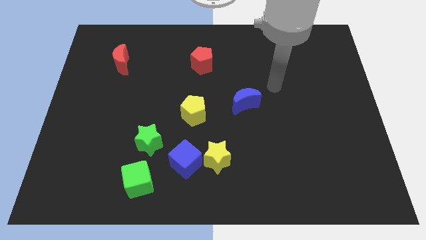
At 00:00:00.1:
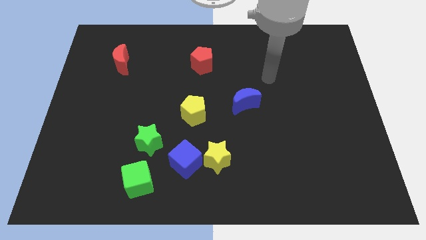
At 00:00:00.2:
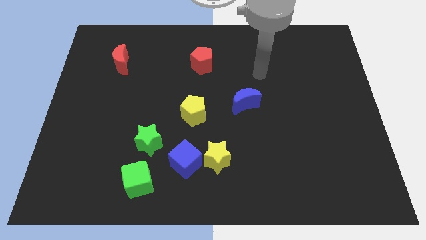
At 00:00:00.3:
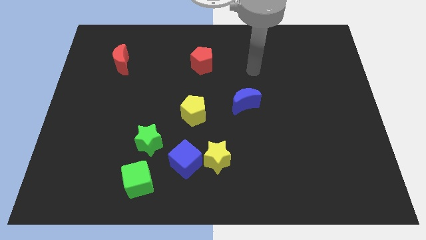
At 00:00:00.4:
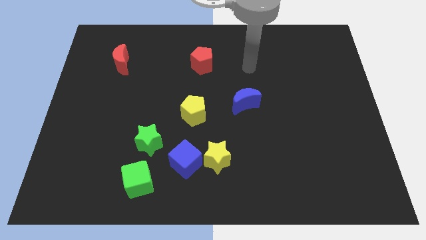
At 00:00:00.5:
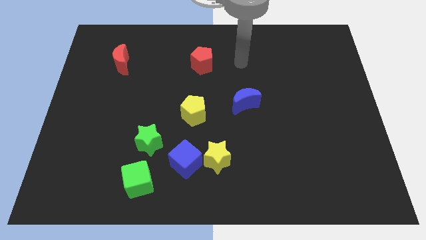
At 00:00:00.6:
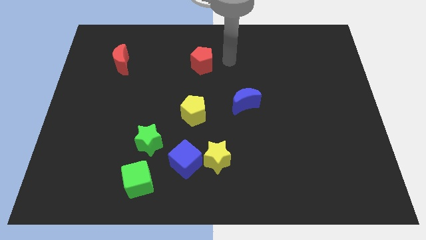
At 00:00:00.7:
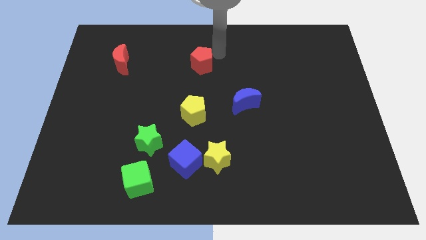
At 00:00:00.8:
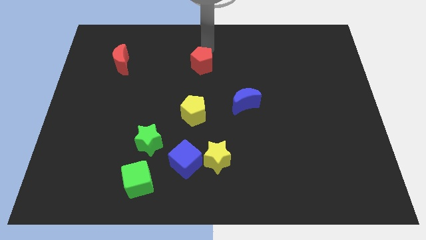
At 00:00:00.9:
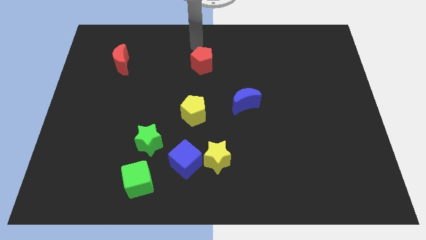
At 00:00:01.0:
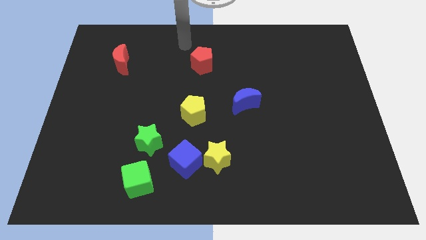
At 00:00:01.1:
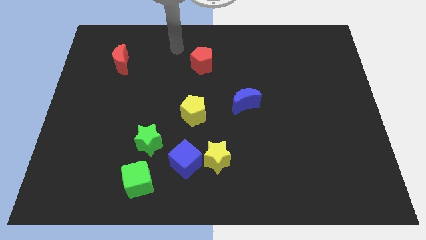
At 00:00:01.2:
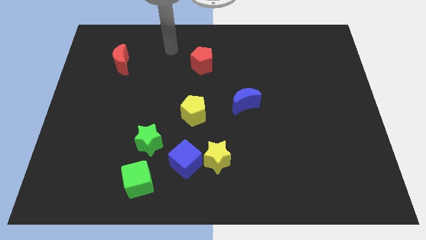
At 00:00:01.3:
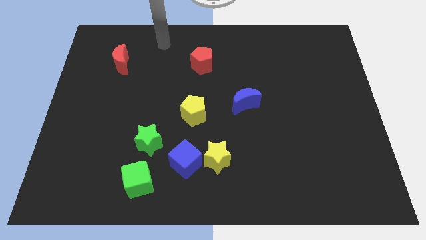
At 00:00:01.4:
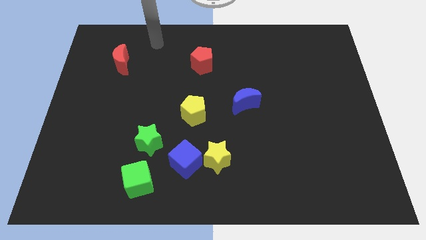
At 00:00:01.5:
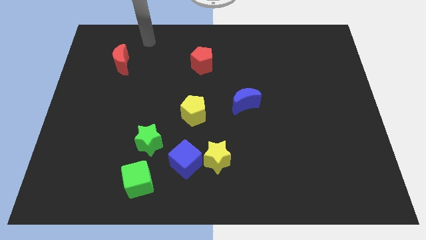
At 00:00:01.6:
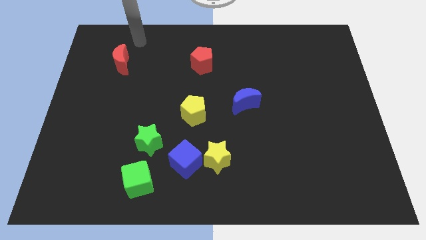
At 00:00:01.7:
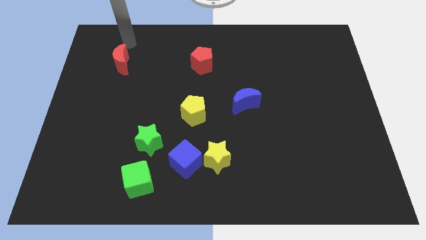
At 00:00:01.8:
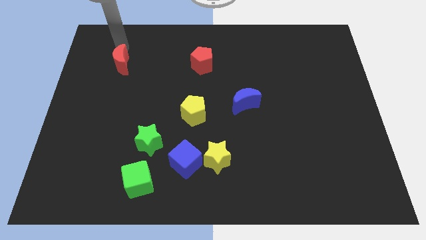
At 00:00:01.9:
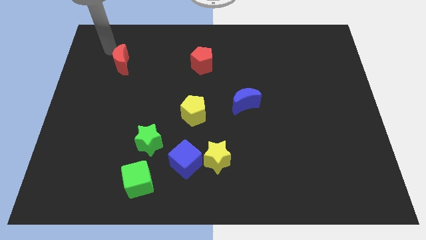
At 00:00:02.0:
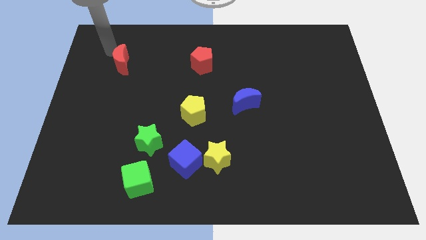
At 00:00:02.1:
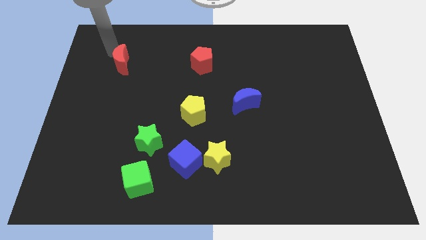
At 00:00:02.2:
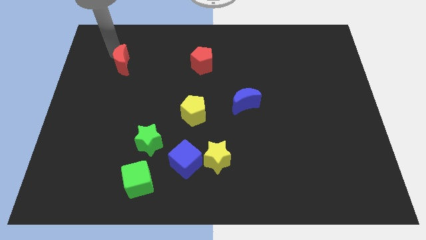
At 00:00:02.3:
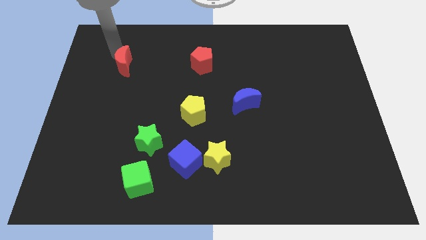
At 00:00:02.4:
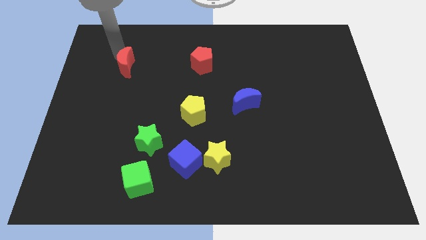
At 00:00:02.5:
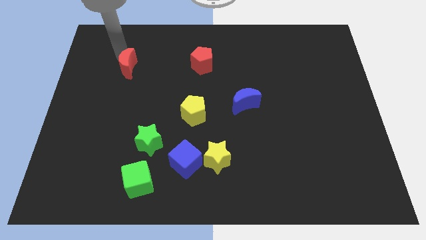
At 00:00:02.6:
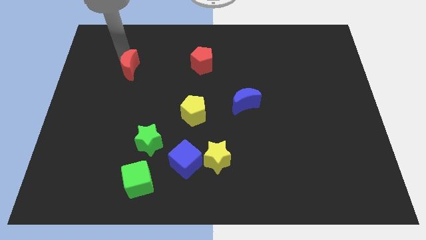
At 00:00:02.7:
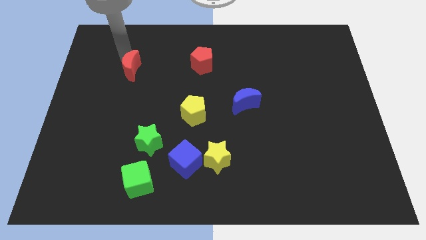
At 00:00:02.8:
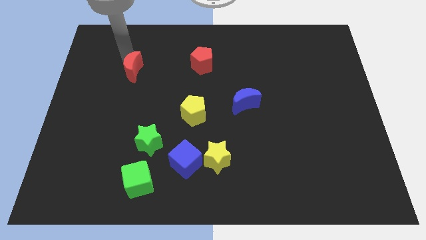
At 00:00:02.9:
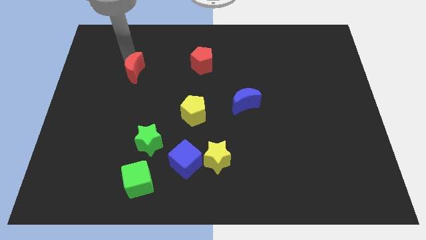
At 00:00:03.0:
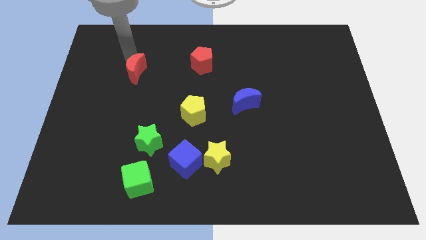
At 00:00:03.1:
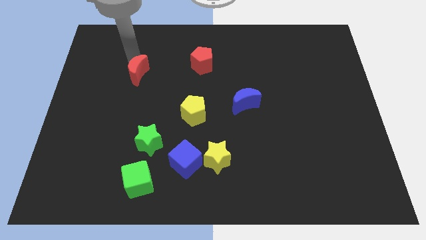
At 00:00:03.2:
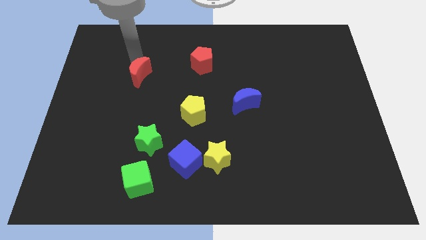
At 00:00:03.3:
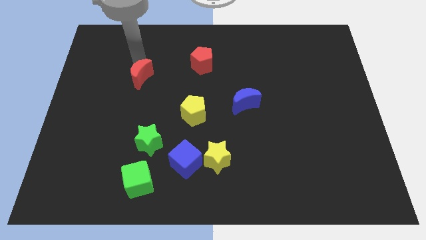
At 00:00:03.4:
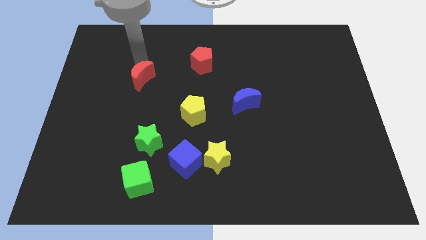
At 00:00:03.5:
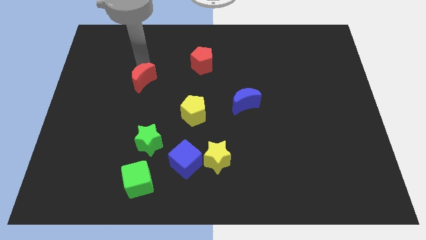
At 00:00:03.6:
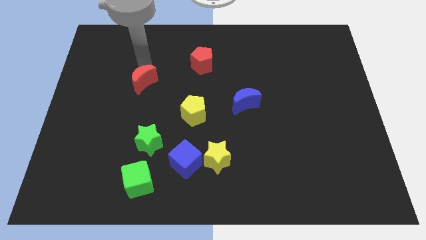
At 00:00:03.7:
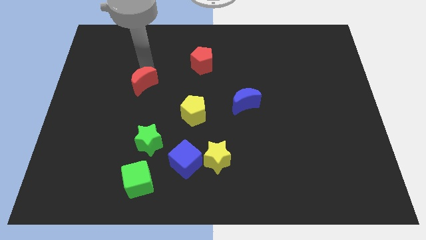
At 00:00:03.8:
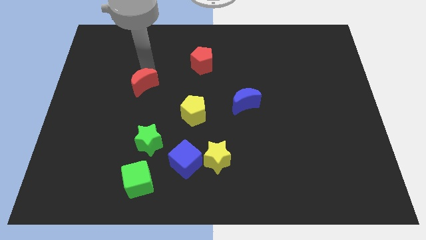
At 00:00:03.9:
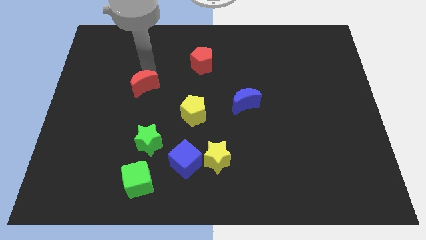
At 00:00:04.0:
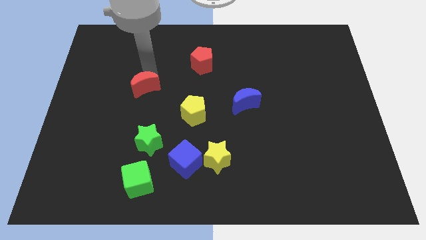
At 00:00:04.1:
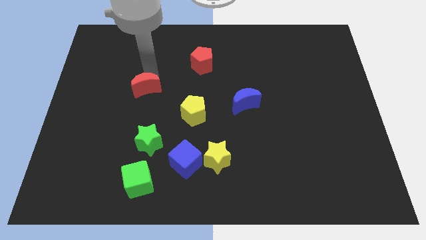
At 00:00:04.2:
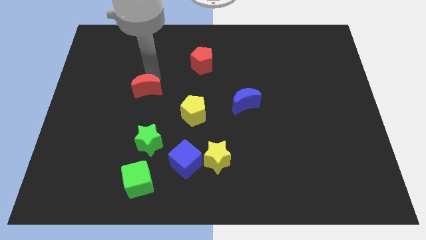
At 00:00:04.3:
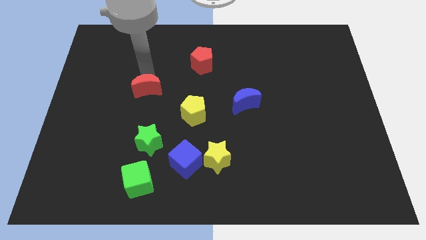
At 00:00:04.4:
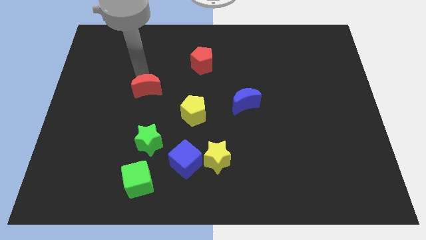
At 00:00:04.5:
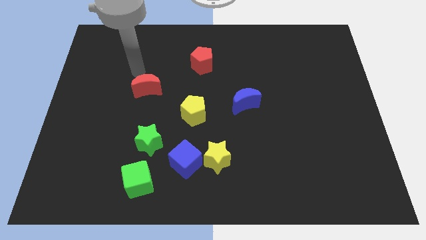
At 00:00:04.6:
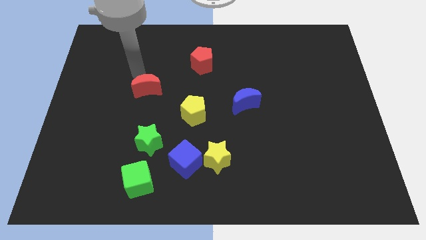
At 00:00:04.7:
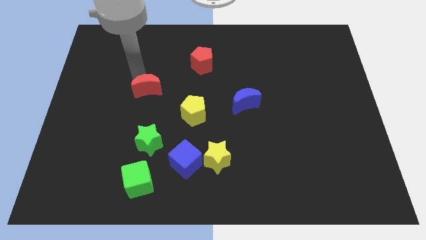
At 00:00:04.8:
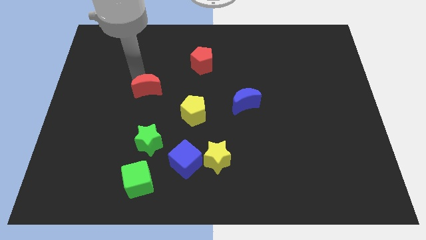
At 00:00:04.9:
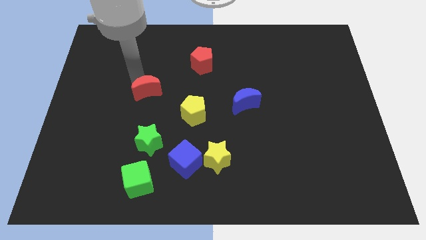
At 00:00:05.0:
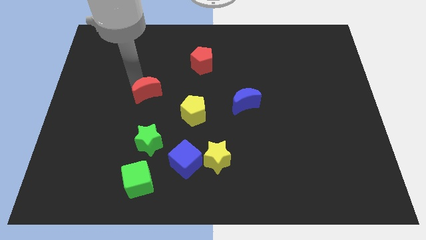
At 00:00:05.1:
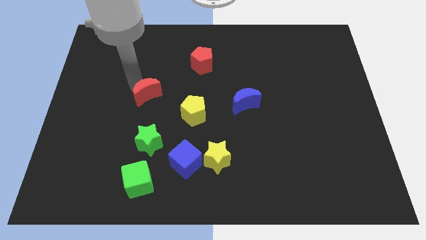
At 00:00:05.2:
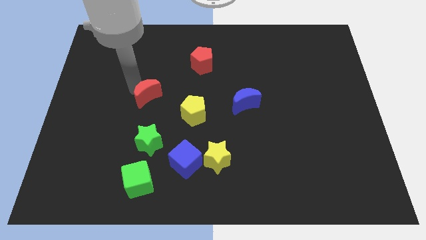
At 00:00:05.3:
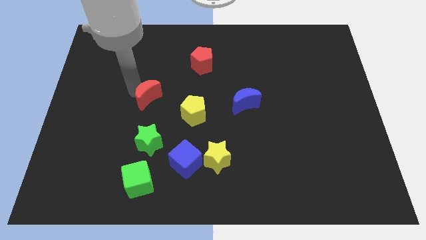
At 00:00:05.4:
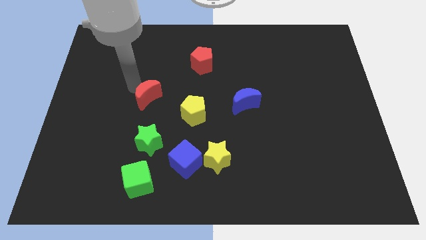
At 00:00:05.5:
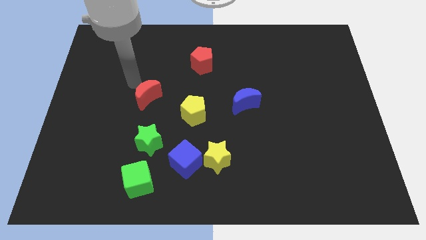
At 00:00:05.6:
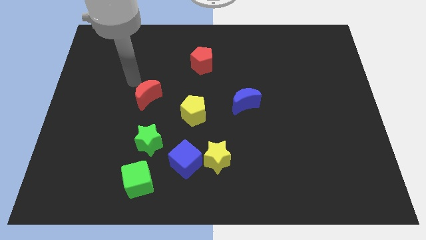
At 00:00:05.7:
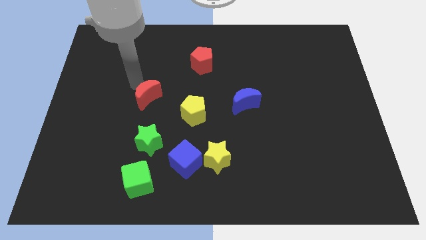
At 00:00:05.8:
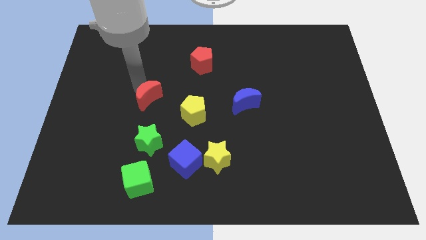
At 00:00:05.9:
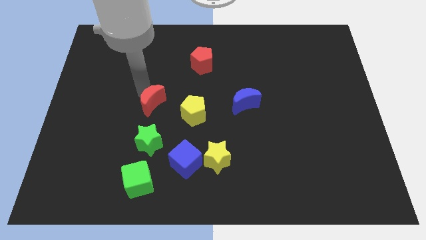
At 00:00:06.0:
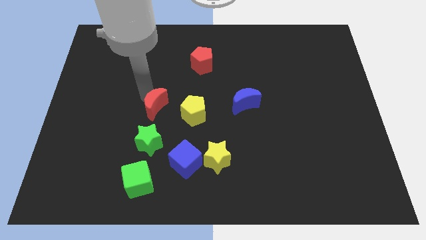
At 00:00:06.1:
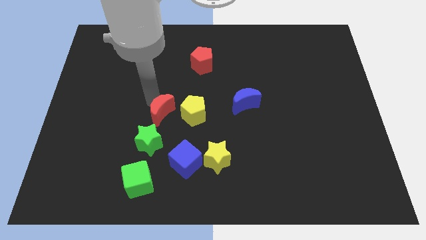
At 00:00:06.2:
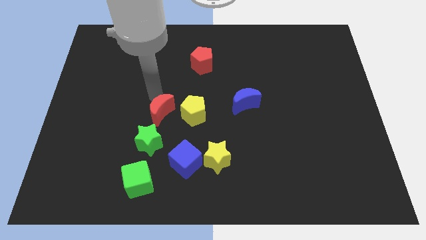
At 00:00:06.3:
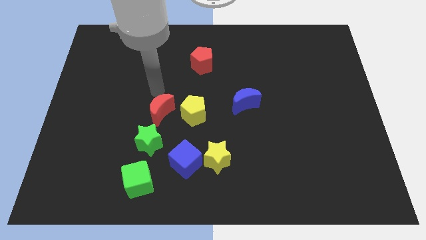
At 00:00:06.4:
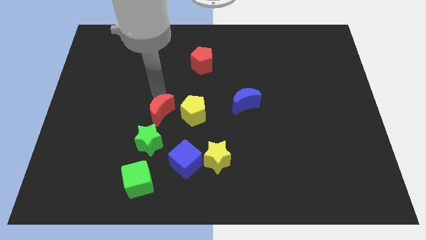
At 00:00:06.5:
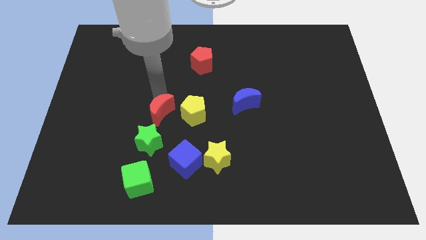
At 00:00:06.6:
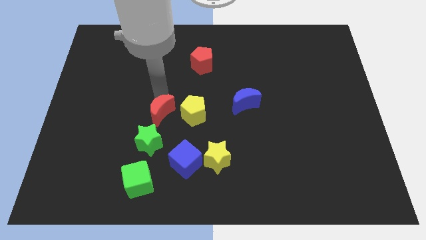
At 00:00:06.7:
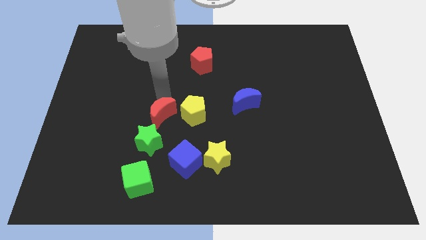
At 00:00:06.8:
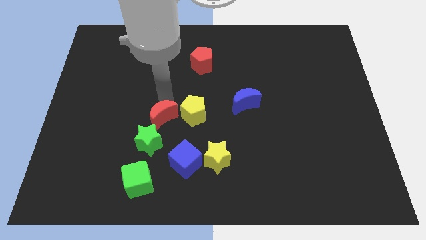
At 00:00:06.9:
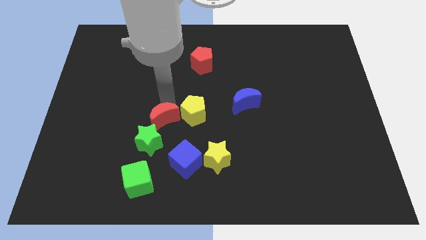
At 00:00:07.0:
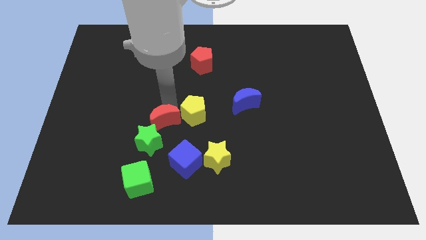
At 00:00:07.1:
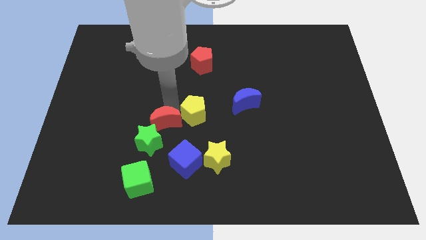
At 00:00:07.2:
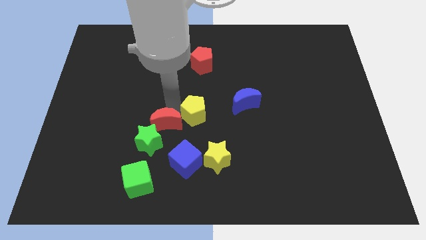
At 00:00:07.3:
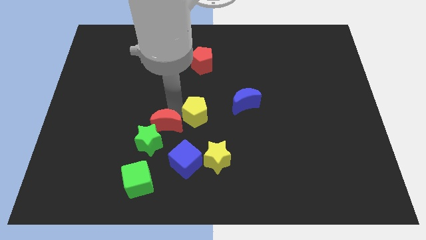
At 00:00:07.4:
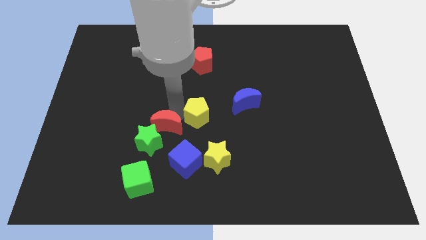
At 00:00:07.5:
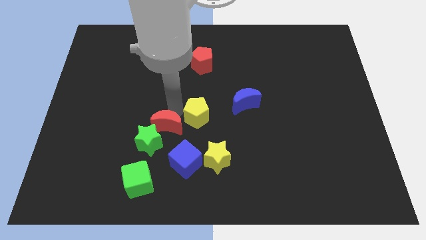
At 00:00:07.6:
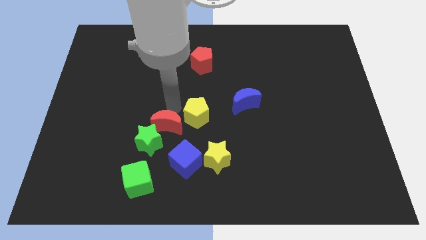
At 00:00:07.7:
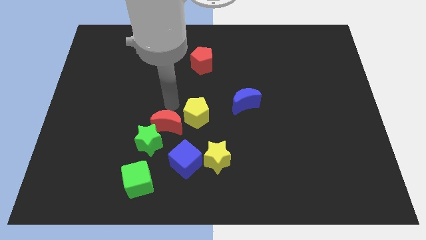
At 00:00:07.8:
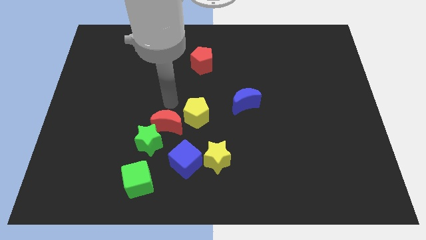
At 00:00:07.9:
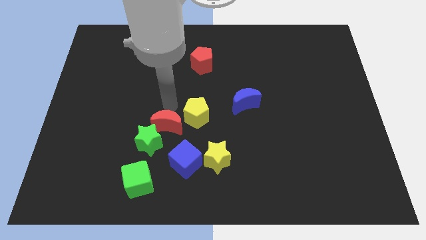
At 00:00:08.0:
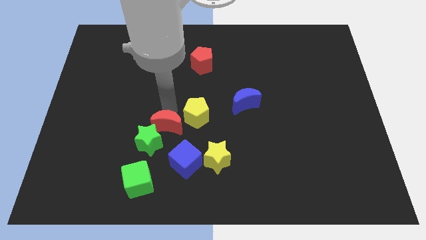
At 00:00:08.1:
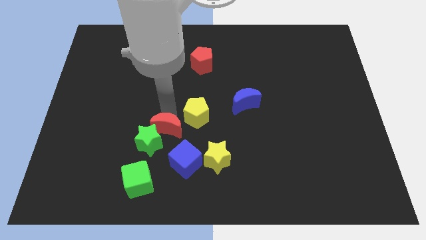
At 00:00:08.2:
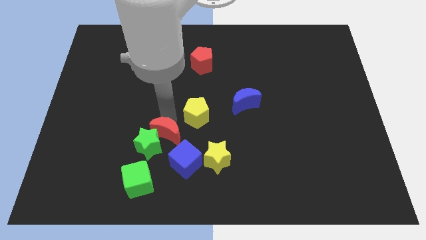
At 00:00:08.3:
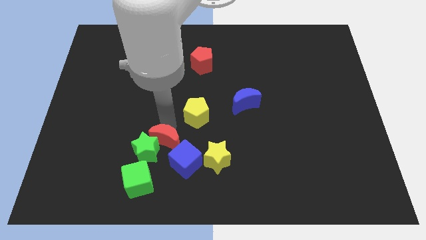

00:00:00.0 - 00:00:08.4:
slide the red moon to the top right side of the green cube
